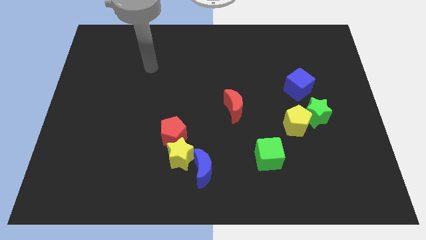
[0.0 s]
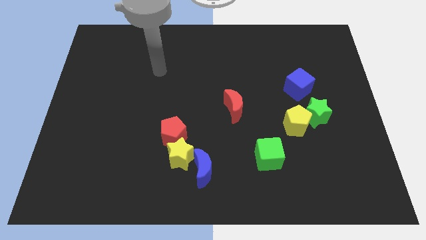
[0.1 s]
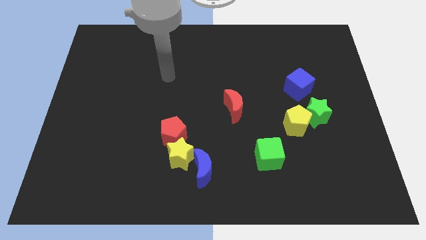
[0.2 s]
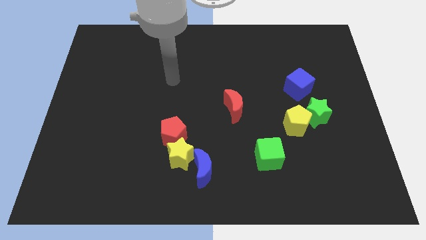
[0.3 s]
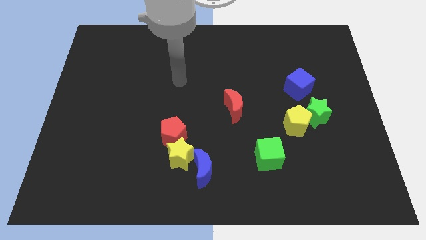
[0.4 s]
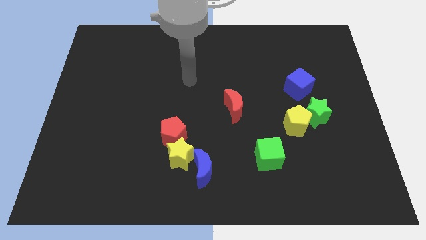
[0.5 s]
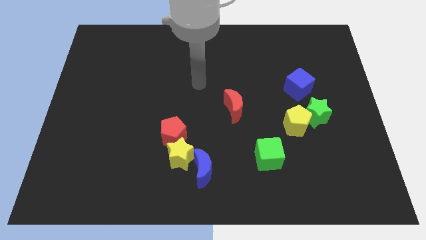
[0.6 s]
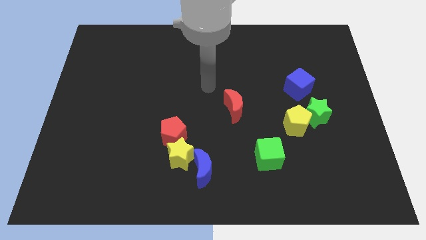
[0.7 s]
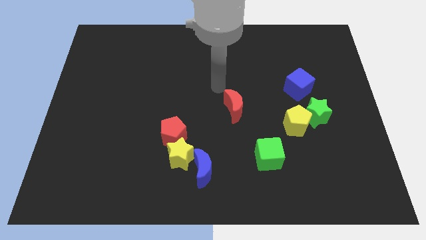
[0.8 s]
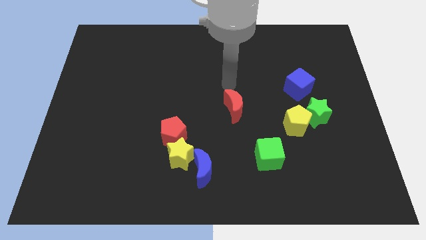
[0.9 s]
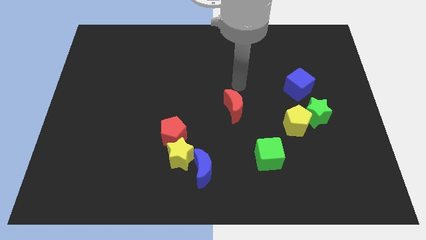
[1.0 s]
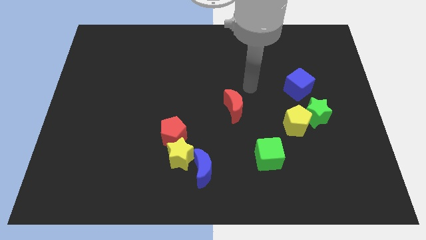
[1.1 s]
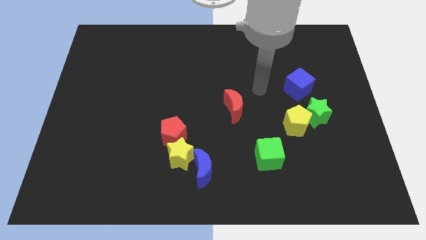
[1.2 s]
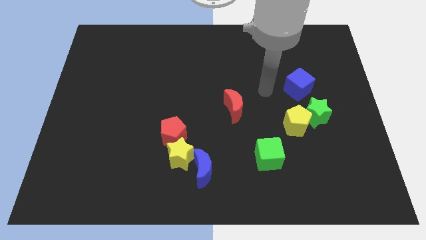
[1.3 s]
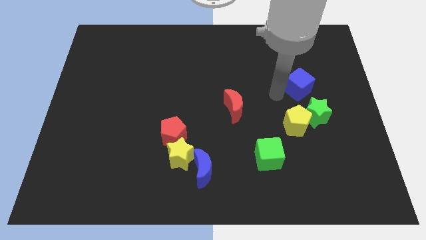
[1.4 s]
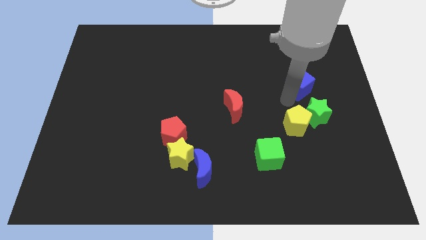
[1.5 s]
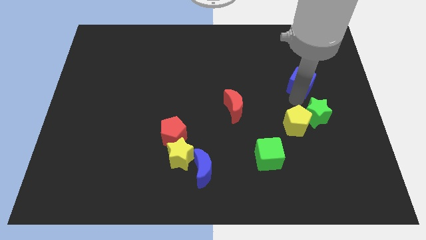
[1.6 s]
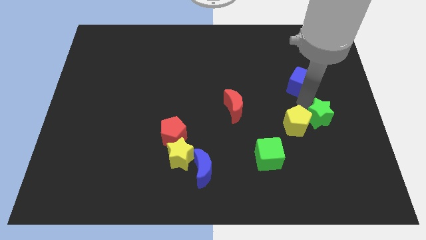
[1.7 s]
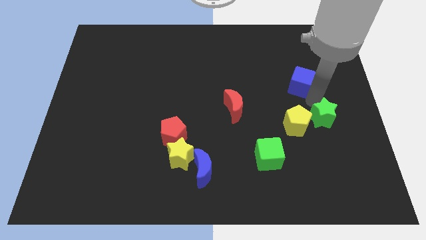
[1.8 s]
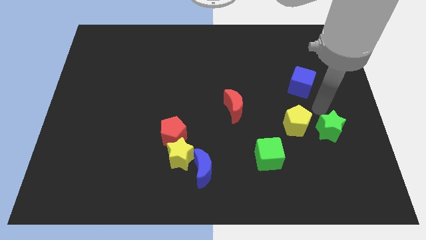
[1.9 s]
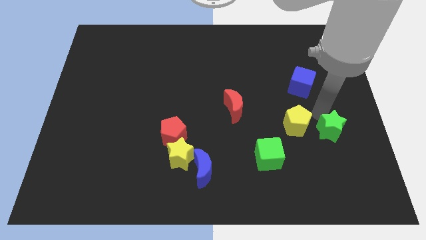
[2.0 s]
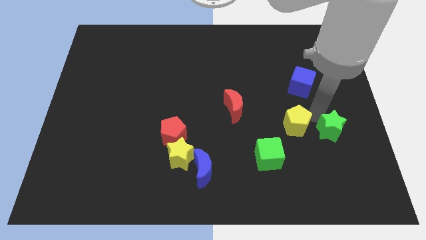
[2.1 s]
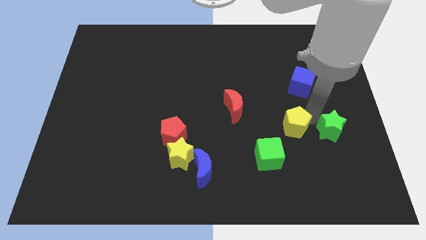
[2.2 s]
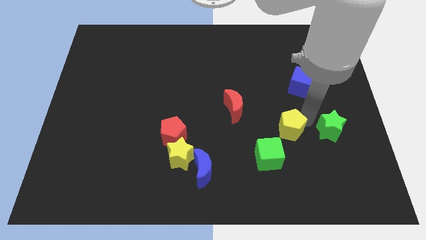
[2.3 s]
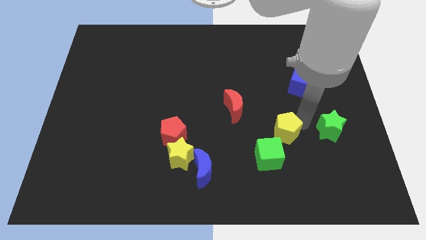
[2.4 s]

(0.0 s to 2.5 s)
move the yellow pentagon away from the green star

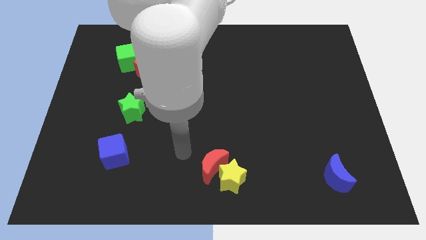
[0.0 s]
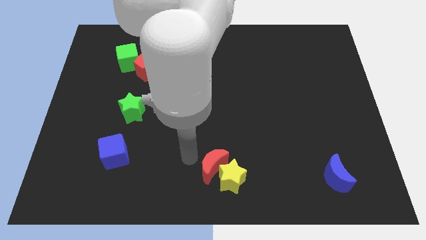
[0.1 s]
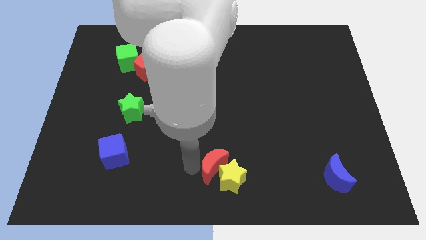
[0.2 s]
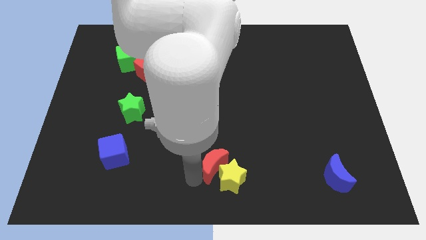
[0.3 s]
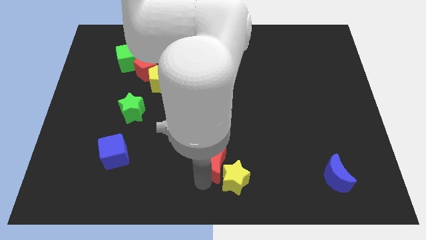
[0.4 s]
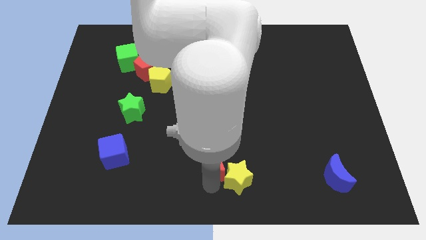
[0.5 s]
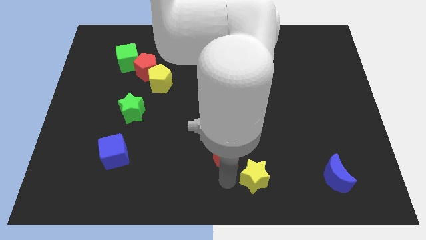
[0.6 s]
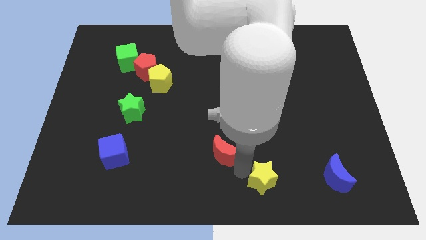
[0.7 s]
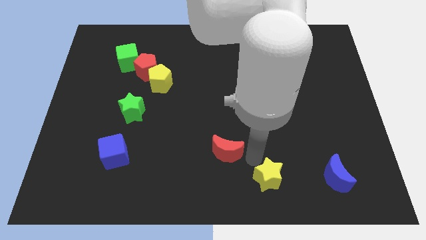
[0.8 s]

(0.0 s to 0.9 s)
separate the red moon from the yellow star

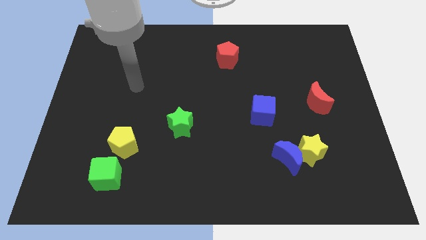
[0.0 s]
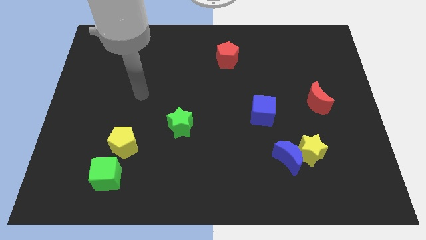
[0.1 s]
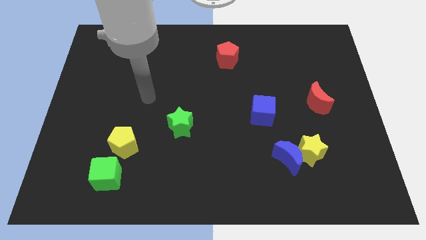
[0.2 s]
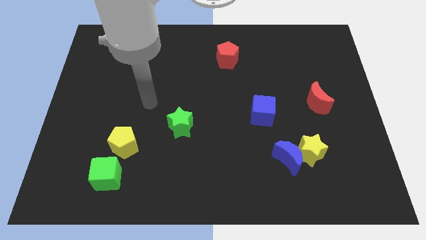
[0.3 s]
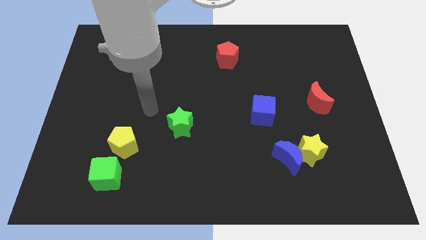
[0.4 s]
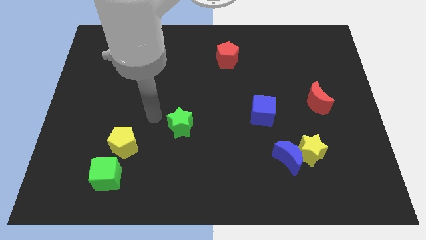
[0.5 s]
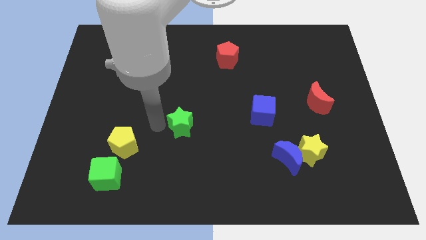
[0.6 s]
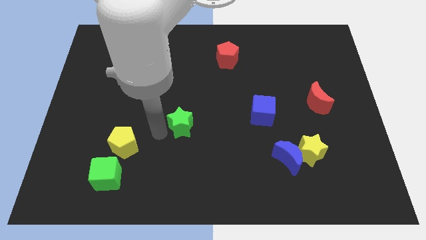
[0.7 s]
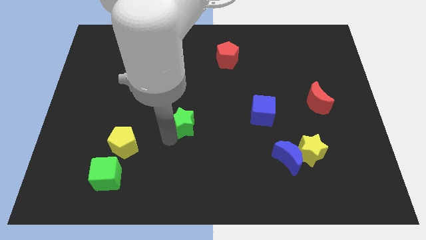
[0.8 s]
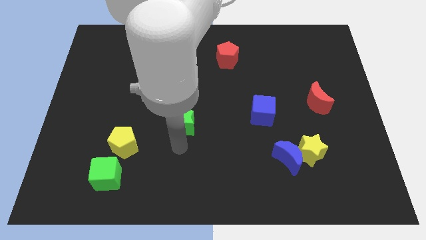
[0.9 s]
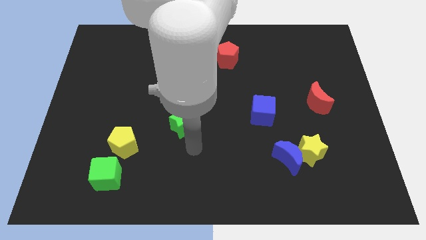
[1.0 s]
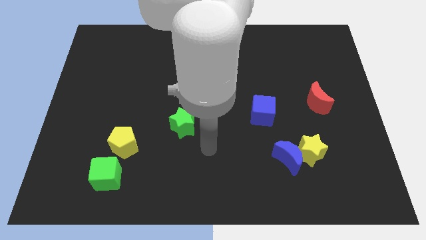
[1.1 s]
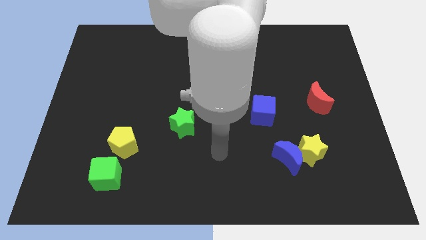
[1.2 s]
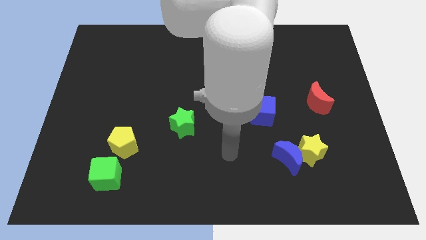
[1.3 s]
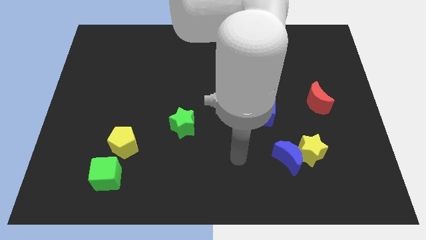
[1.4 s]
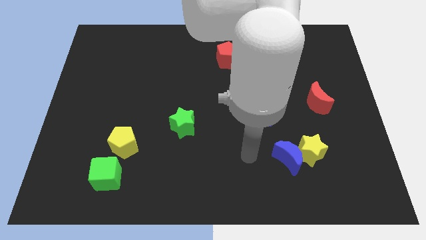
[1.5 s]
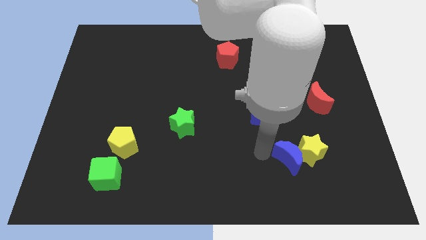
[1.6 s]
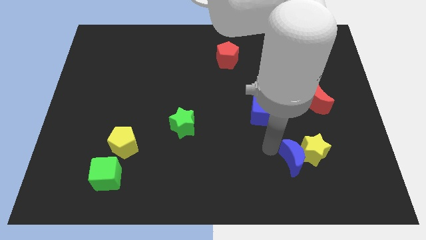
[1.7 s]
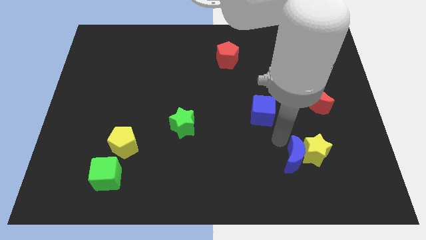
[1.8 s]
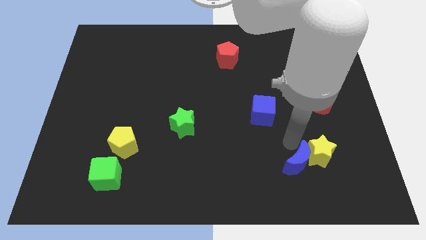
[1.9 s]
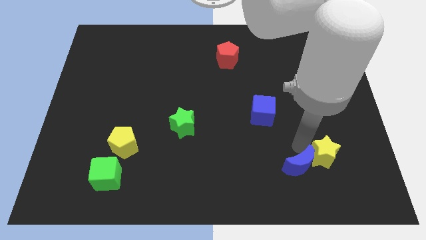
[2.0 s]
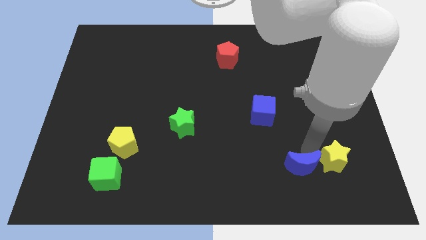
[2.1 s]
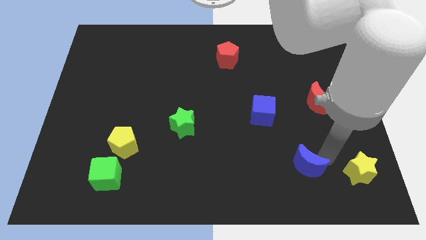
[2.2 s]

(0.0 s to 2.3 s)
pull the blue moon apart from the yellow star

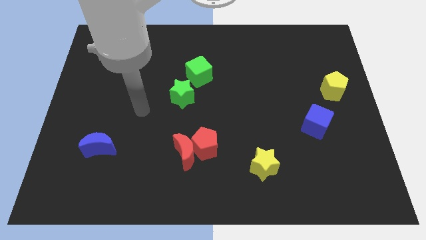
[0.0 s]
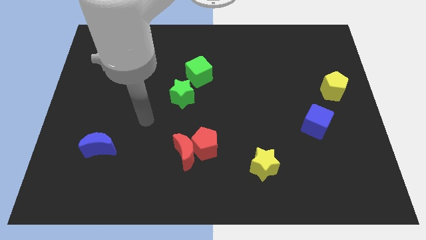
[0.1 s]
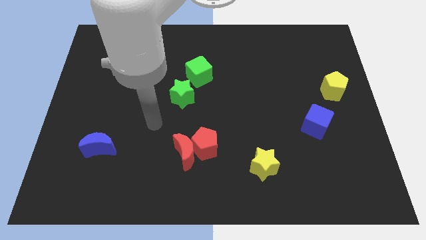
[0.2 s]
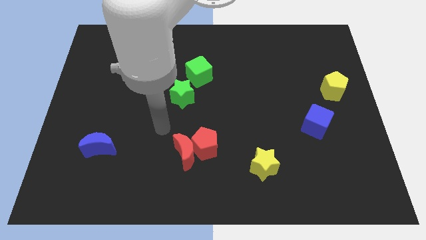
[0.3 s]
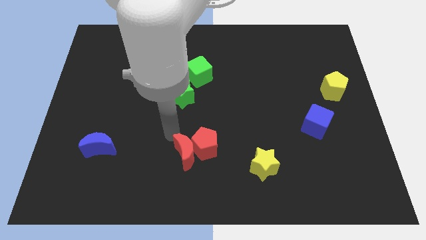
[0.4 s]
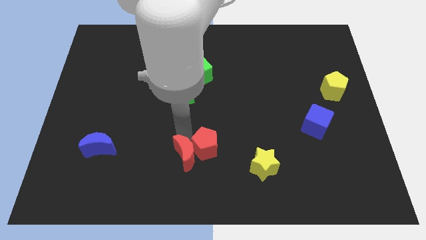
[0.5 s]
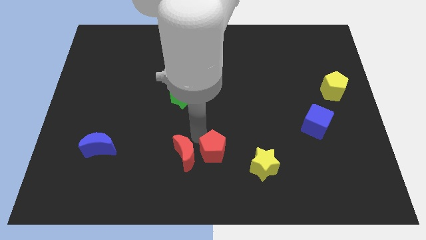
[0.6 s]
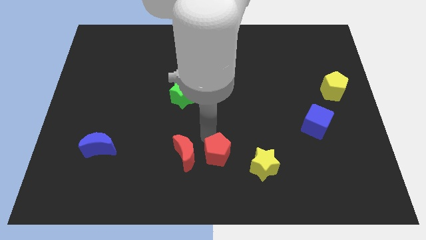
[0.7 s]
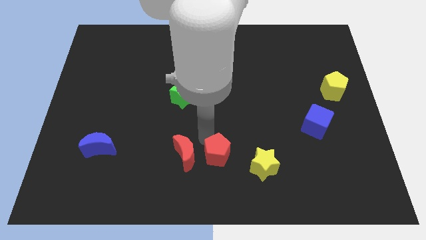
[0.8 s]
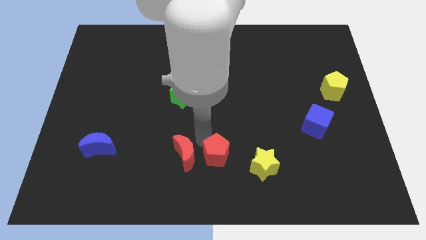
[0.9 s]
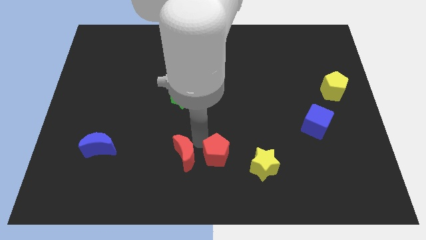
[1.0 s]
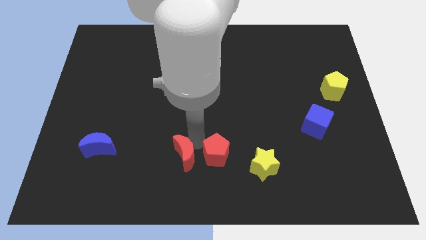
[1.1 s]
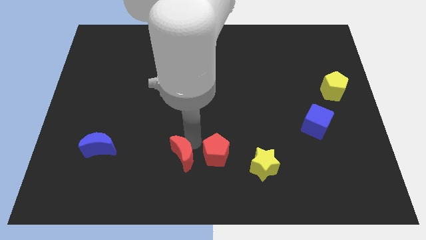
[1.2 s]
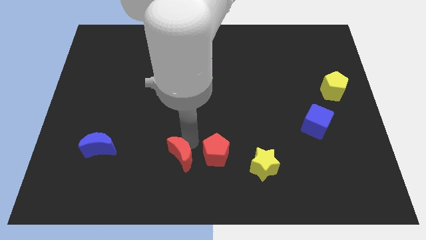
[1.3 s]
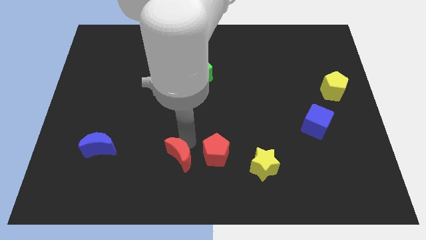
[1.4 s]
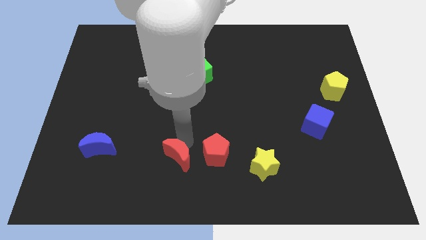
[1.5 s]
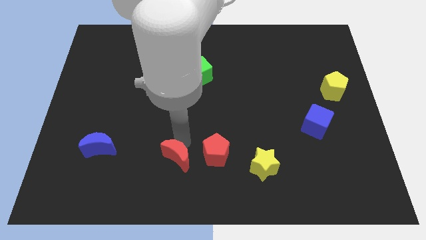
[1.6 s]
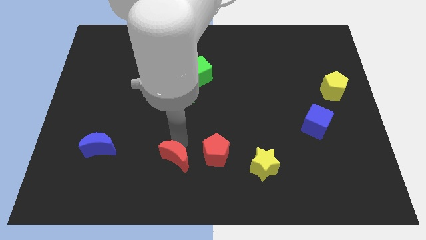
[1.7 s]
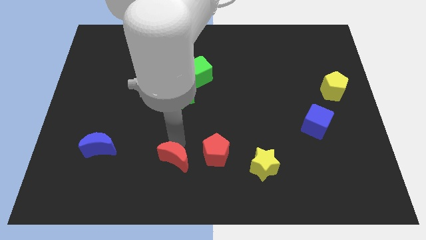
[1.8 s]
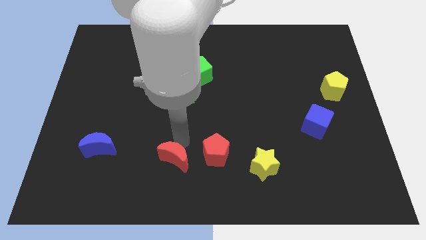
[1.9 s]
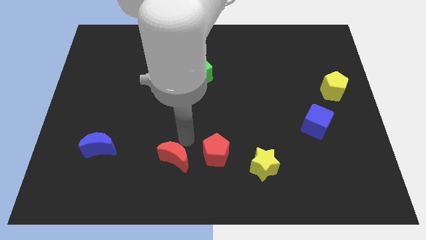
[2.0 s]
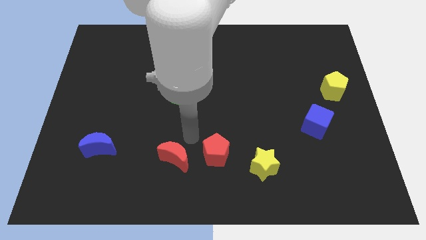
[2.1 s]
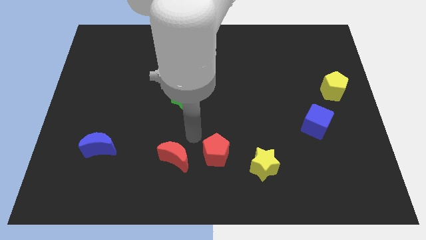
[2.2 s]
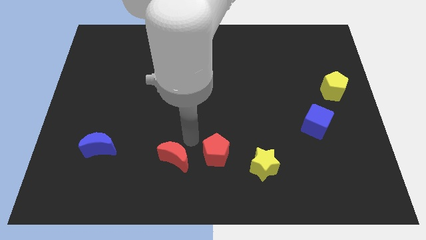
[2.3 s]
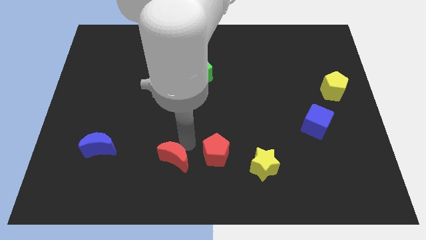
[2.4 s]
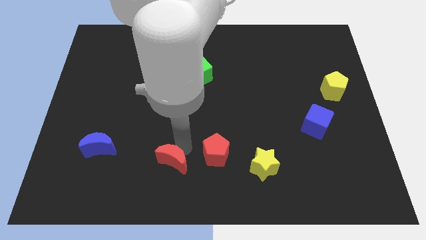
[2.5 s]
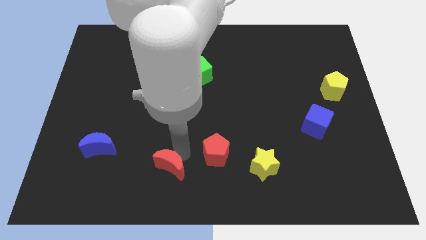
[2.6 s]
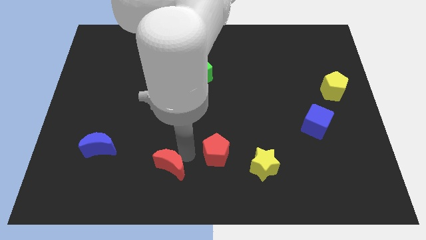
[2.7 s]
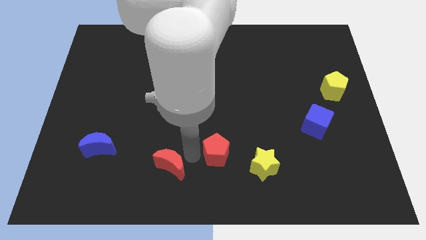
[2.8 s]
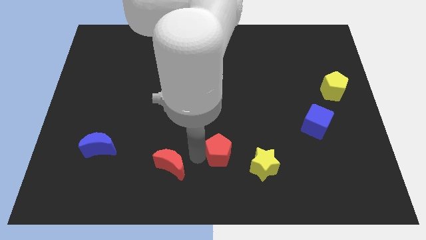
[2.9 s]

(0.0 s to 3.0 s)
separate the red moon from the red pentagon

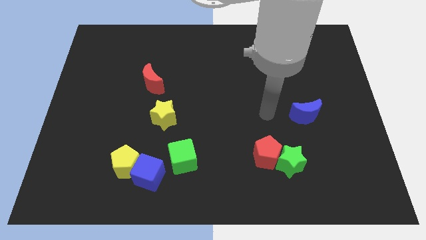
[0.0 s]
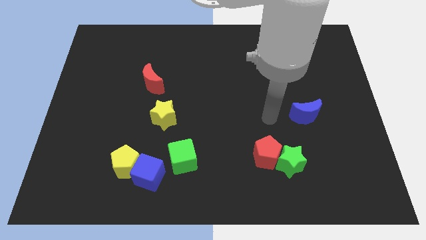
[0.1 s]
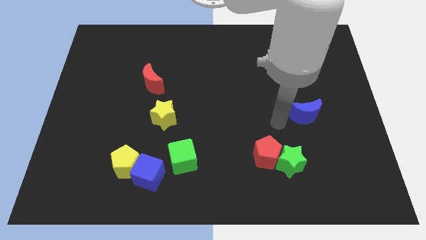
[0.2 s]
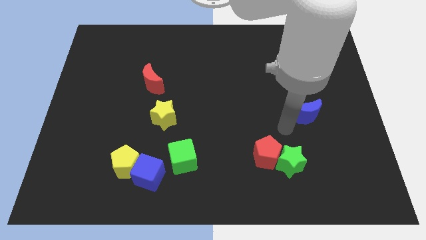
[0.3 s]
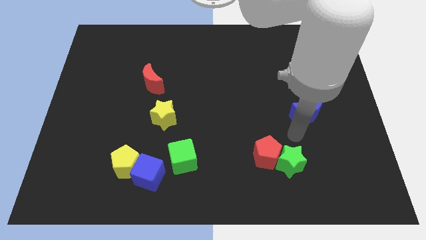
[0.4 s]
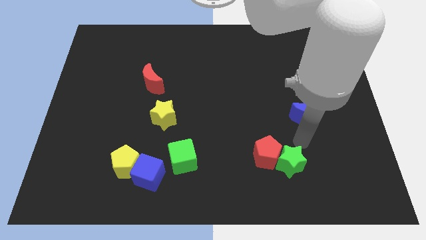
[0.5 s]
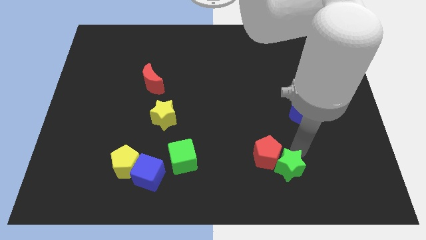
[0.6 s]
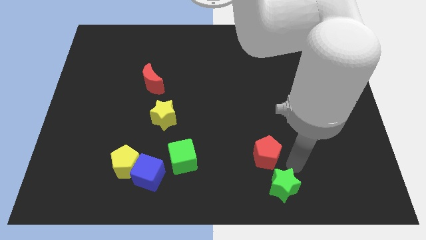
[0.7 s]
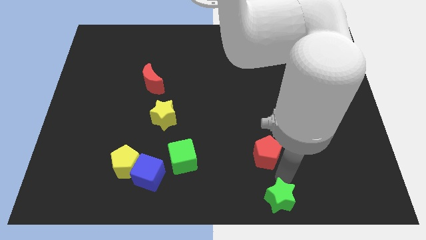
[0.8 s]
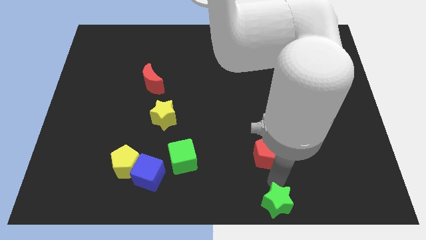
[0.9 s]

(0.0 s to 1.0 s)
move the red pentagon away from the green star
